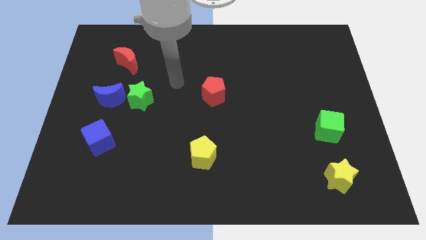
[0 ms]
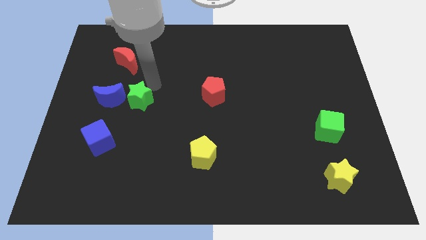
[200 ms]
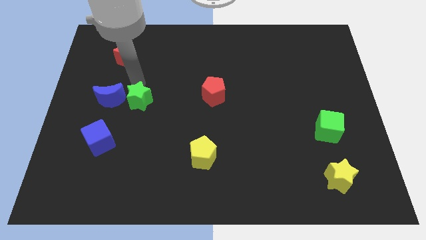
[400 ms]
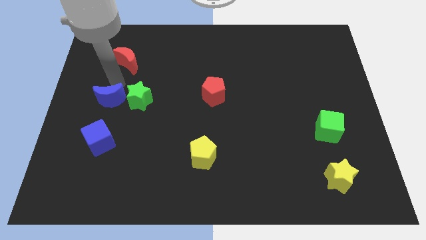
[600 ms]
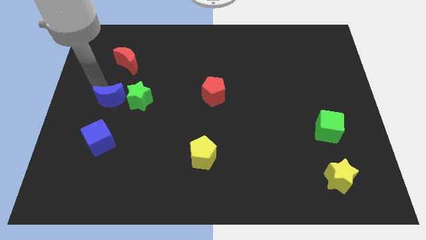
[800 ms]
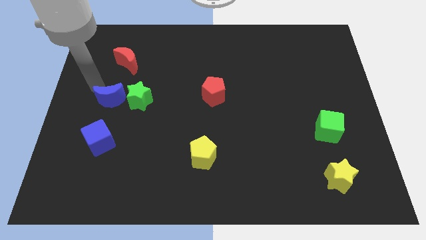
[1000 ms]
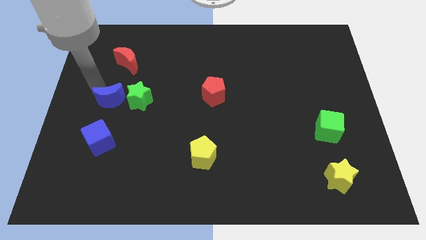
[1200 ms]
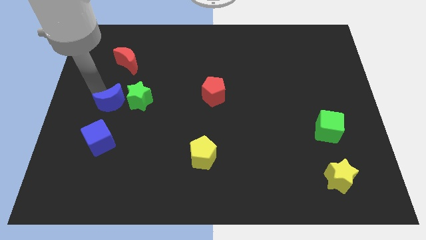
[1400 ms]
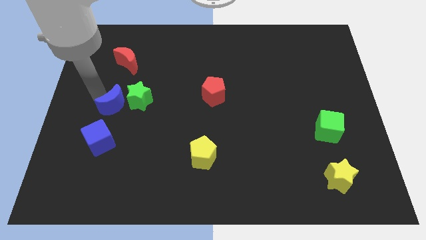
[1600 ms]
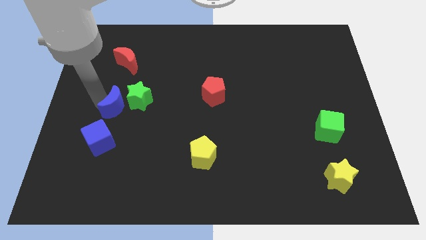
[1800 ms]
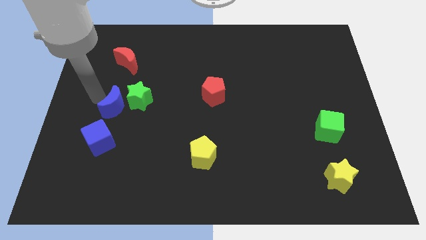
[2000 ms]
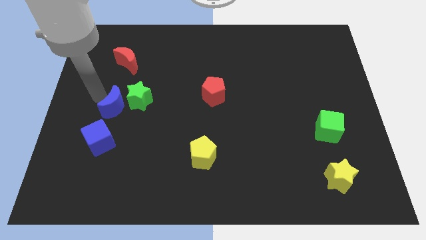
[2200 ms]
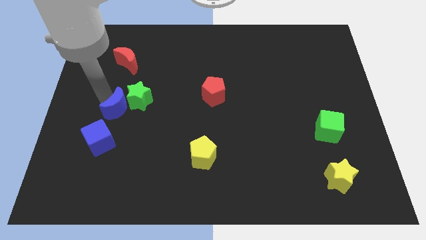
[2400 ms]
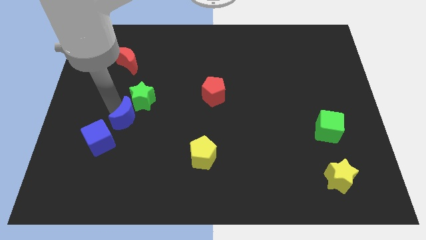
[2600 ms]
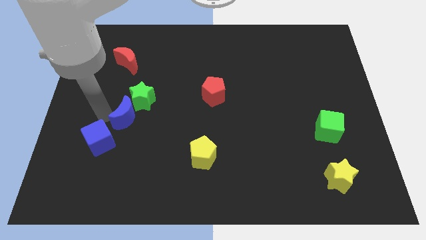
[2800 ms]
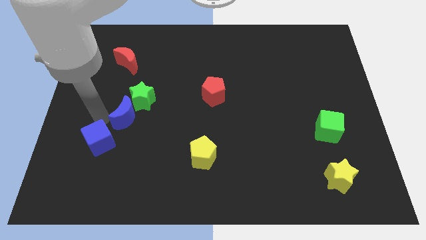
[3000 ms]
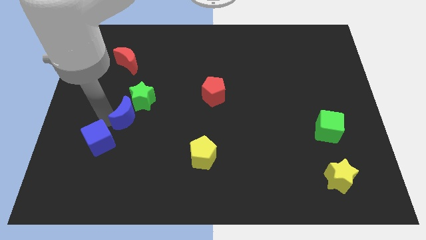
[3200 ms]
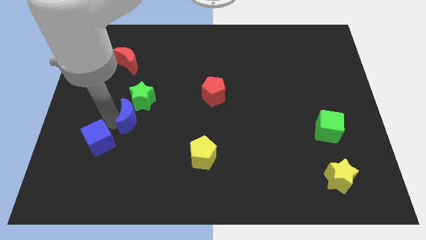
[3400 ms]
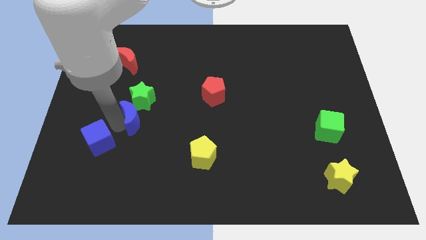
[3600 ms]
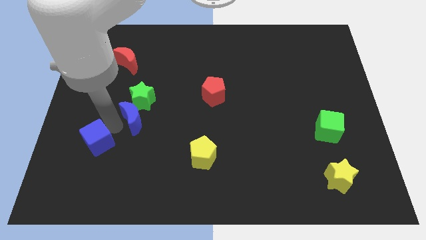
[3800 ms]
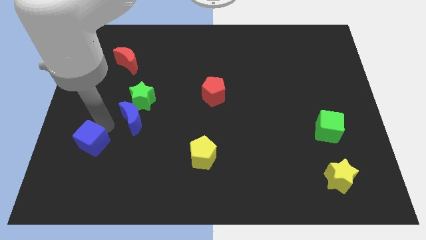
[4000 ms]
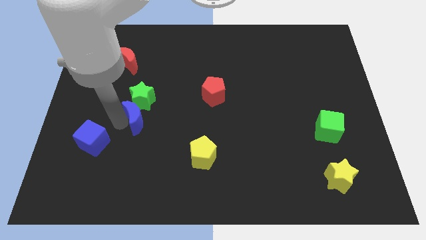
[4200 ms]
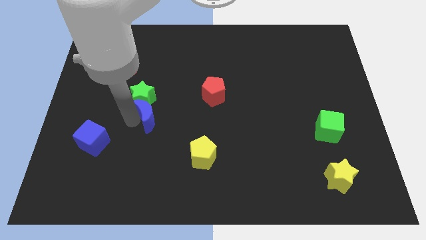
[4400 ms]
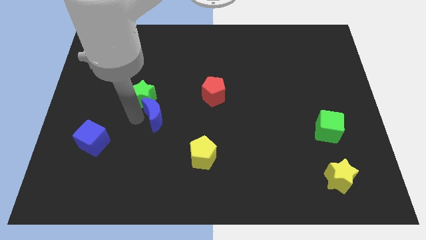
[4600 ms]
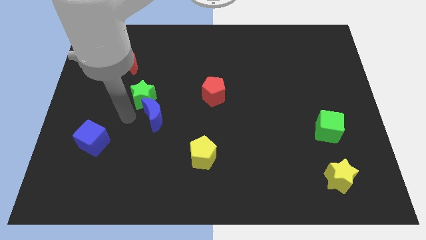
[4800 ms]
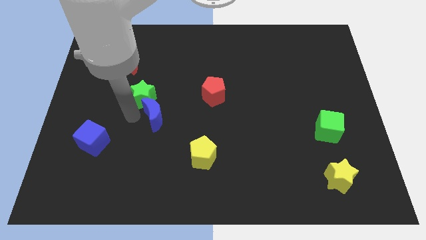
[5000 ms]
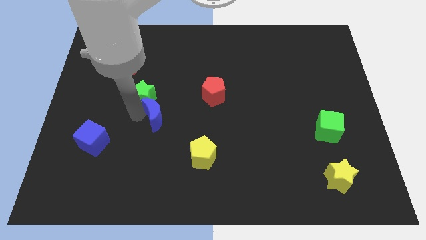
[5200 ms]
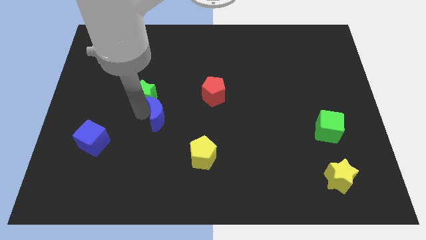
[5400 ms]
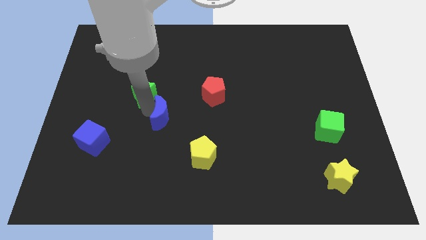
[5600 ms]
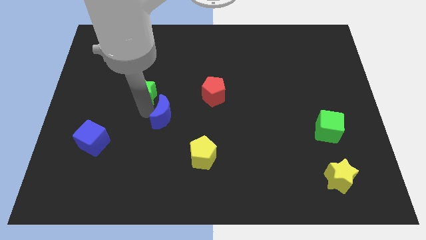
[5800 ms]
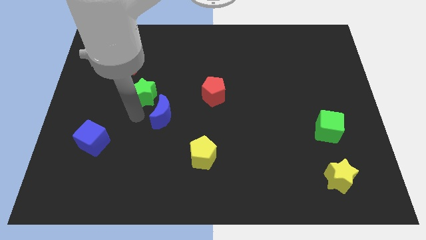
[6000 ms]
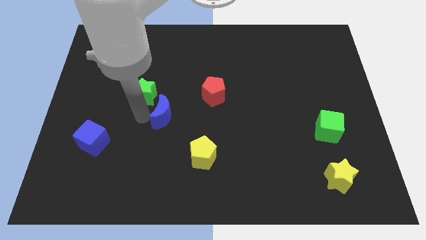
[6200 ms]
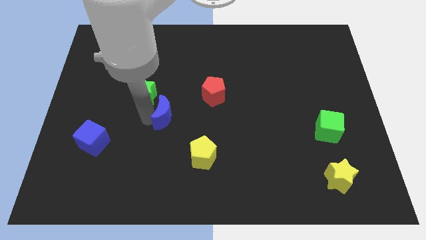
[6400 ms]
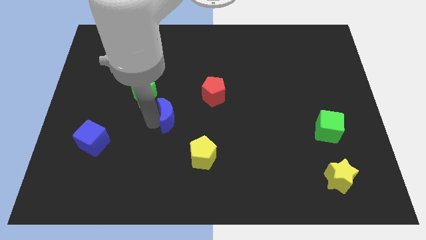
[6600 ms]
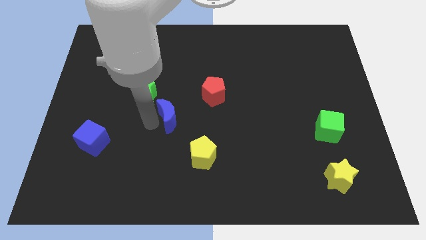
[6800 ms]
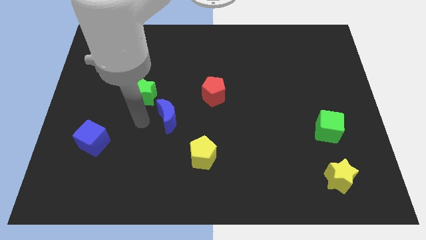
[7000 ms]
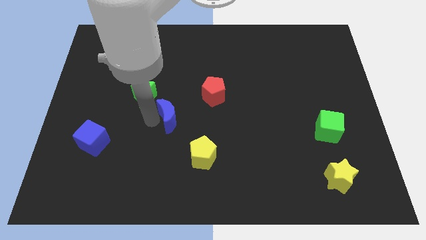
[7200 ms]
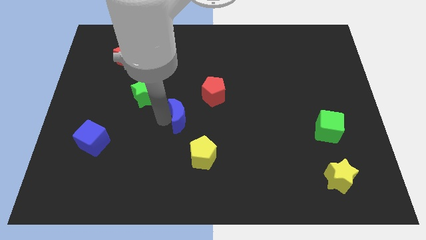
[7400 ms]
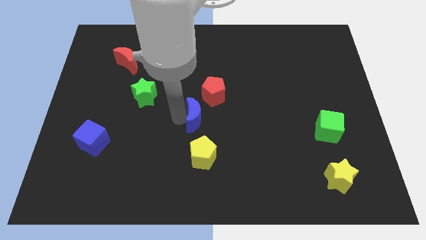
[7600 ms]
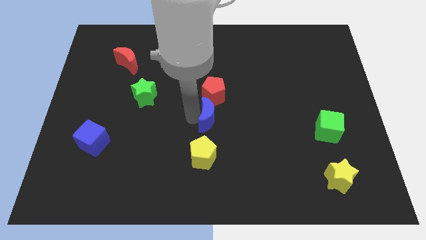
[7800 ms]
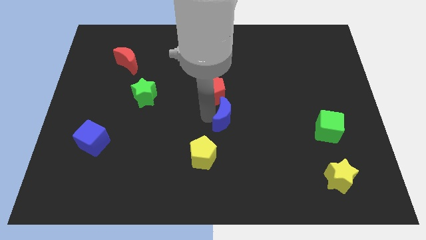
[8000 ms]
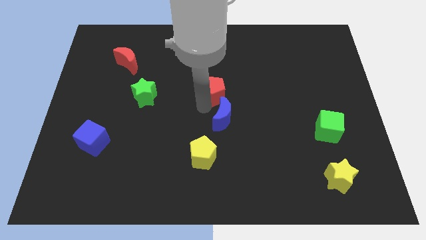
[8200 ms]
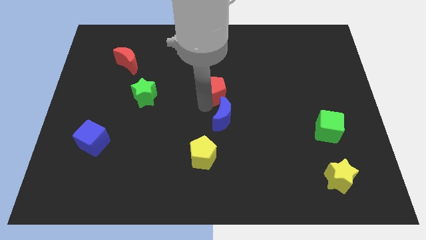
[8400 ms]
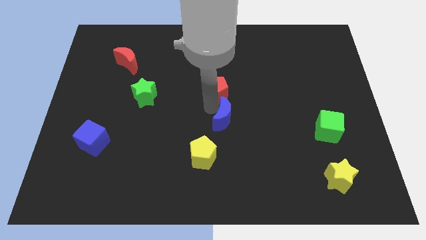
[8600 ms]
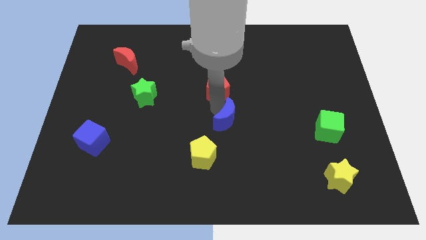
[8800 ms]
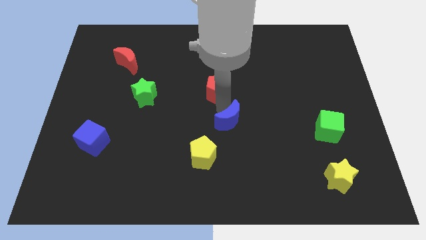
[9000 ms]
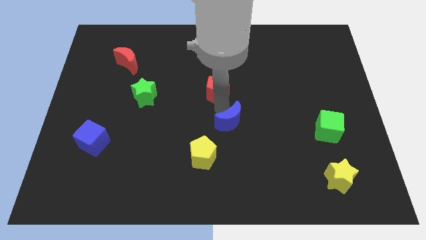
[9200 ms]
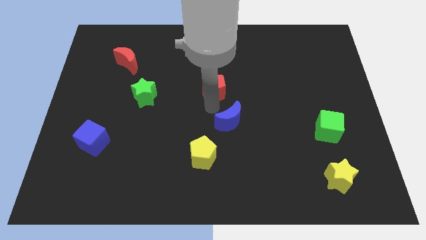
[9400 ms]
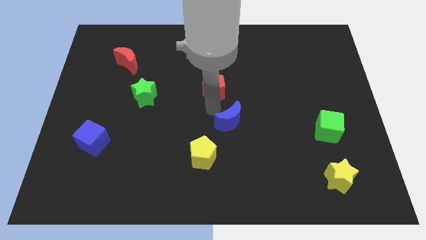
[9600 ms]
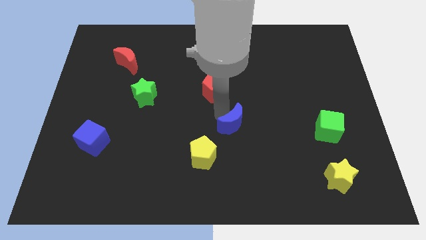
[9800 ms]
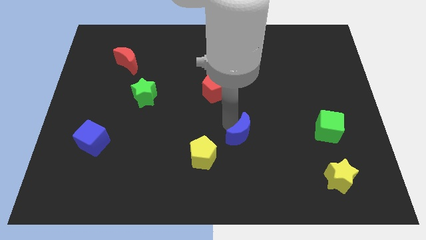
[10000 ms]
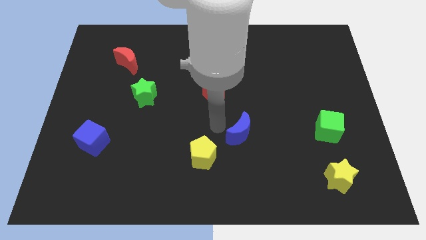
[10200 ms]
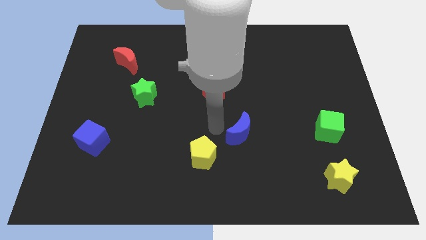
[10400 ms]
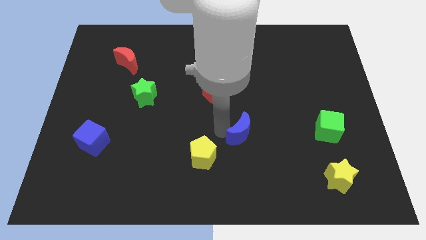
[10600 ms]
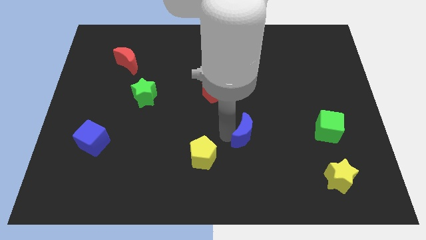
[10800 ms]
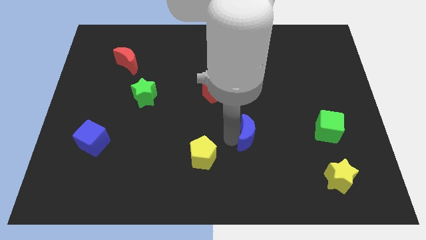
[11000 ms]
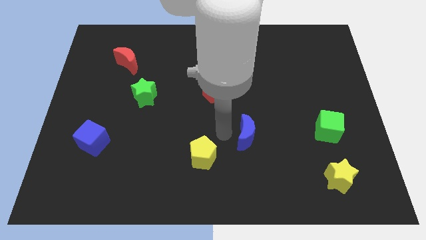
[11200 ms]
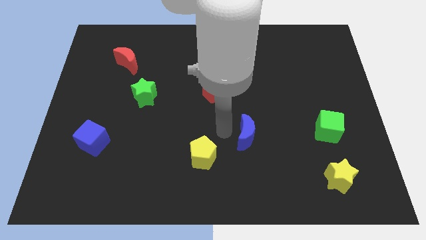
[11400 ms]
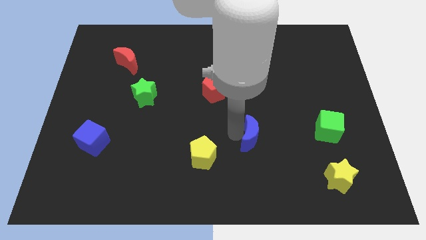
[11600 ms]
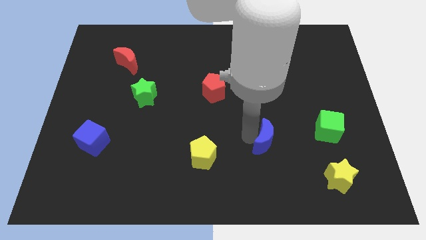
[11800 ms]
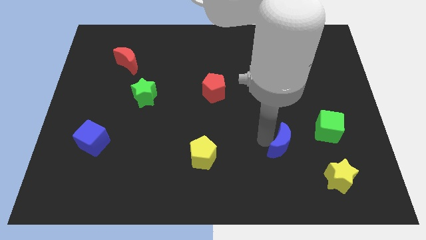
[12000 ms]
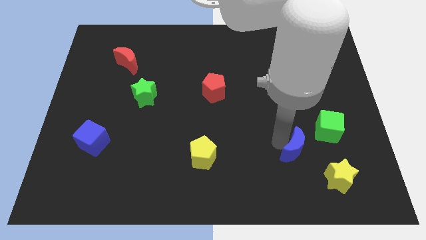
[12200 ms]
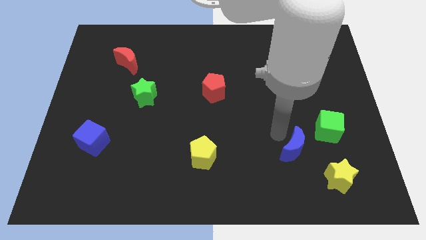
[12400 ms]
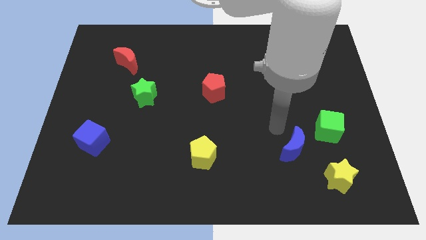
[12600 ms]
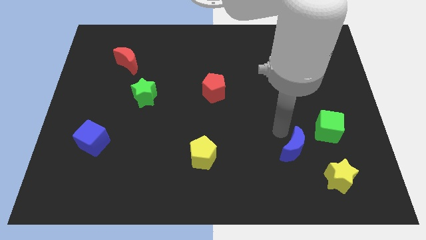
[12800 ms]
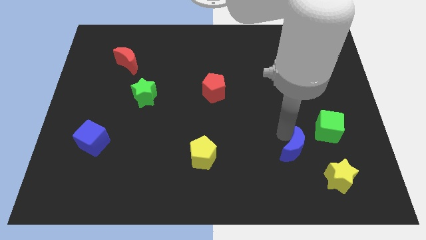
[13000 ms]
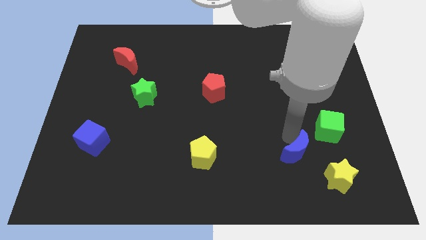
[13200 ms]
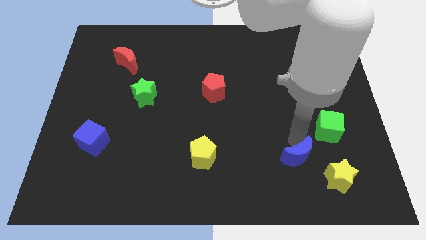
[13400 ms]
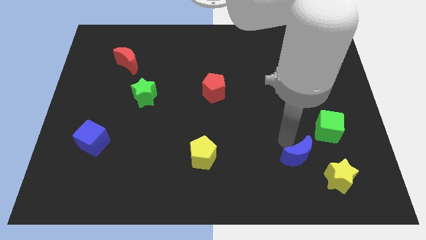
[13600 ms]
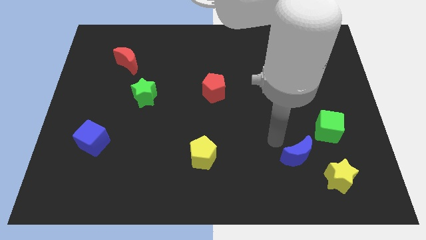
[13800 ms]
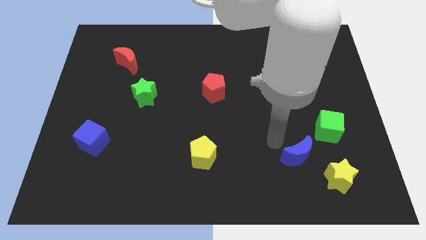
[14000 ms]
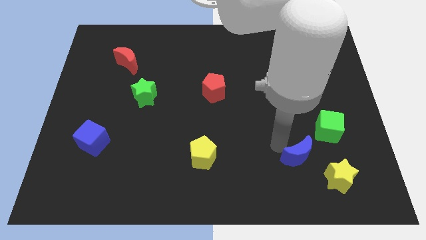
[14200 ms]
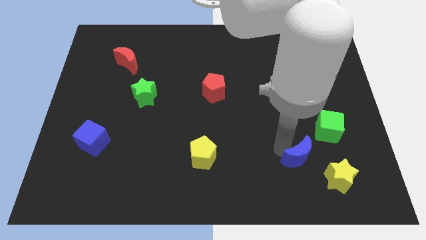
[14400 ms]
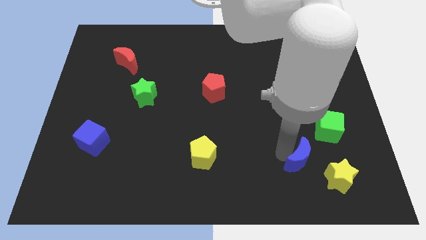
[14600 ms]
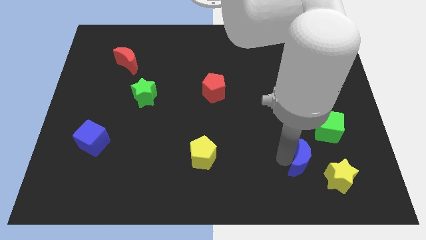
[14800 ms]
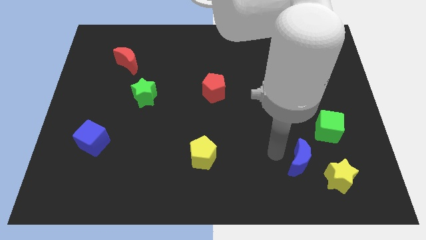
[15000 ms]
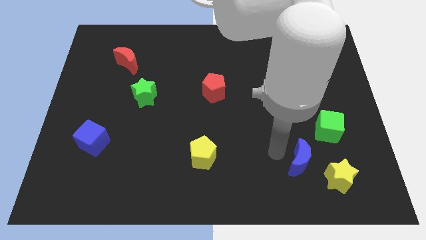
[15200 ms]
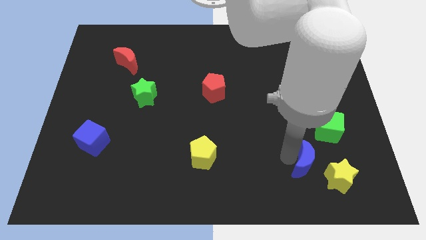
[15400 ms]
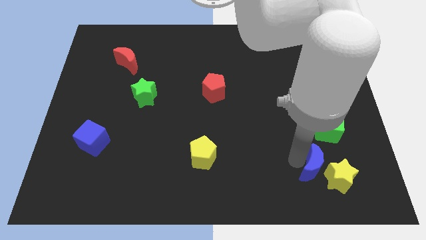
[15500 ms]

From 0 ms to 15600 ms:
slide the blue moon to the yellow star
